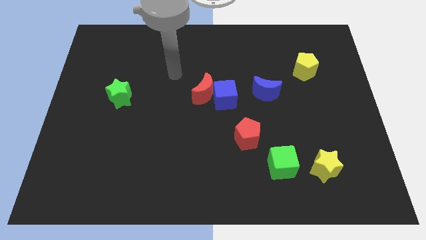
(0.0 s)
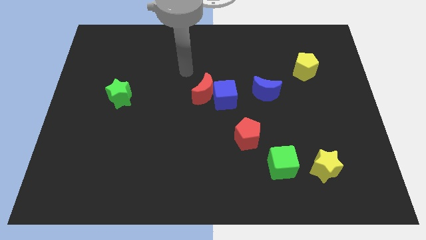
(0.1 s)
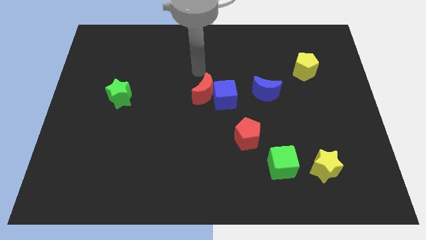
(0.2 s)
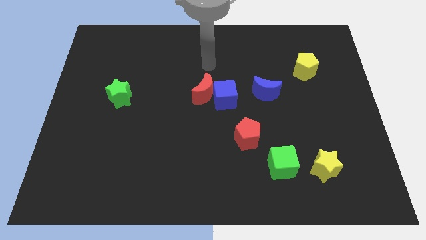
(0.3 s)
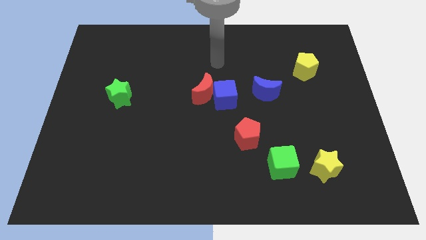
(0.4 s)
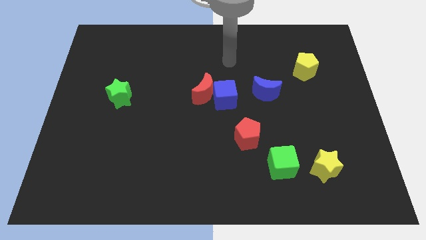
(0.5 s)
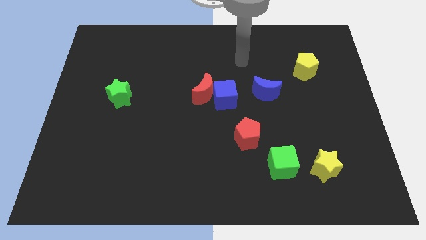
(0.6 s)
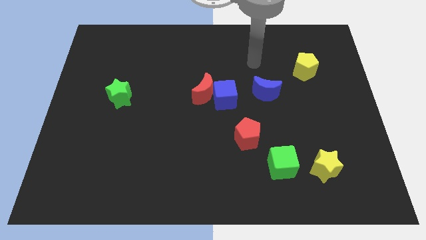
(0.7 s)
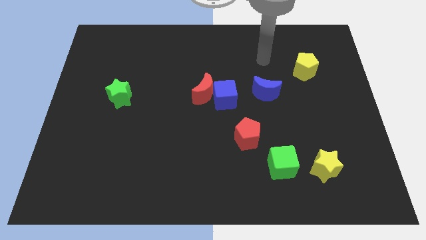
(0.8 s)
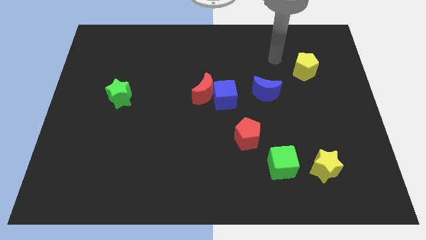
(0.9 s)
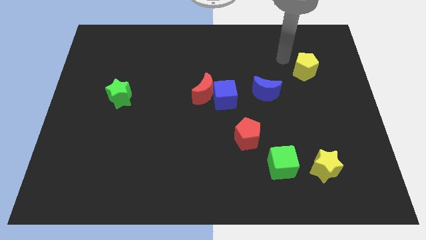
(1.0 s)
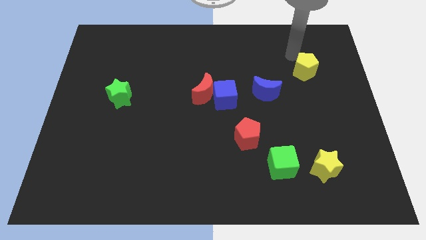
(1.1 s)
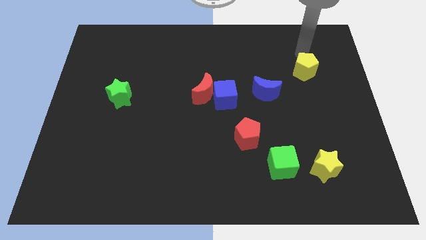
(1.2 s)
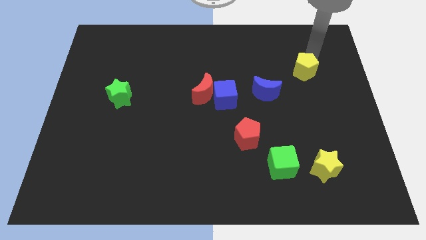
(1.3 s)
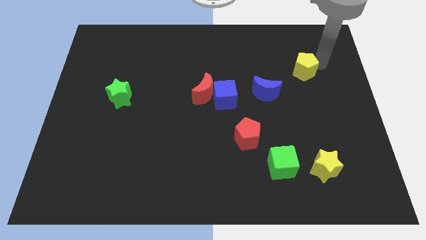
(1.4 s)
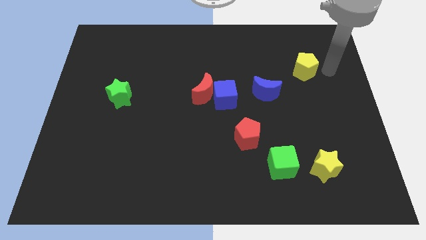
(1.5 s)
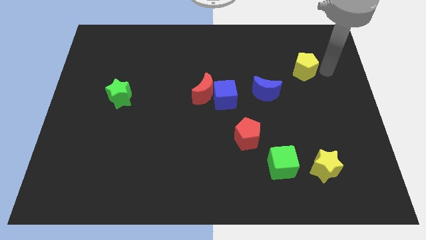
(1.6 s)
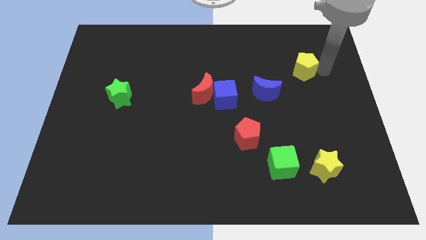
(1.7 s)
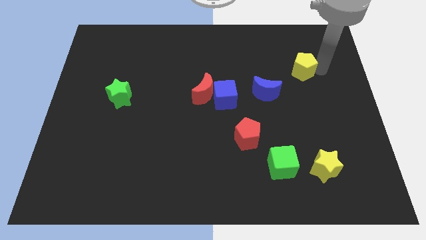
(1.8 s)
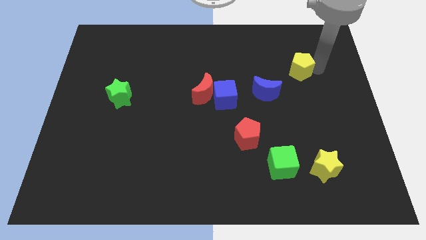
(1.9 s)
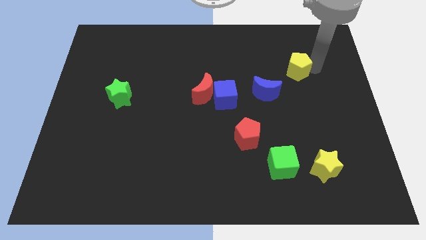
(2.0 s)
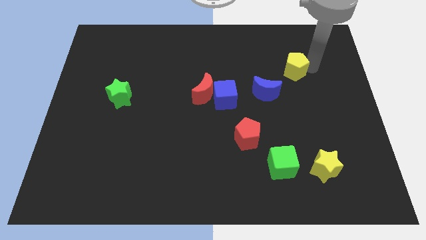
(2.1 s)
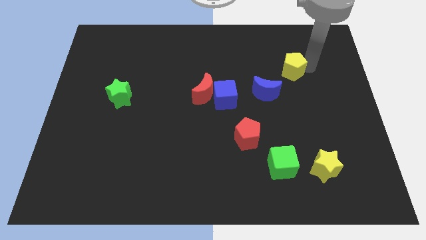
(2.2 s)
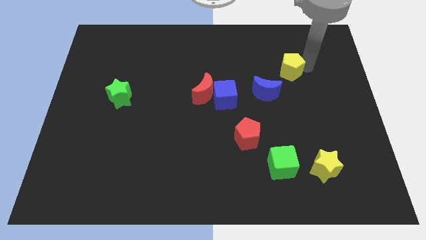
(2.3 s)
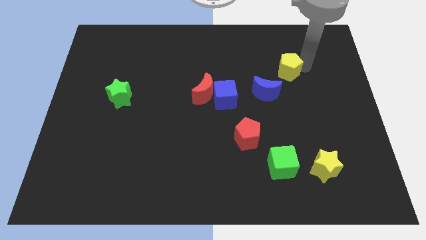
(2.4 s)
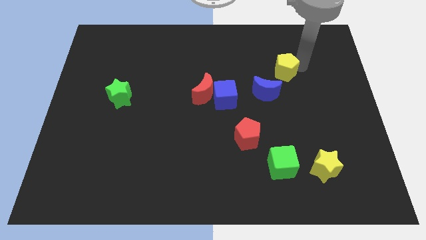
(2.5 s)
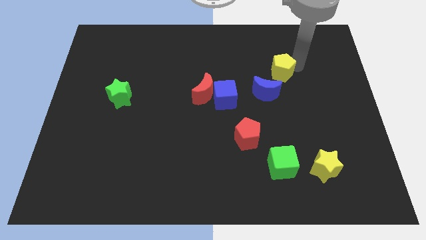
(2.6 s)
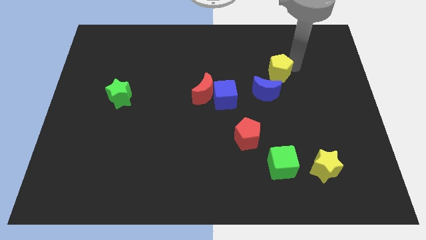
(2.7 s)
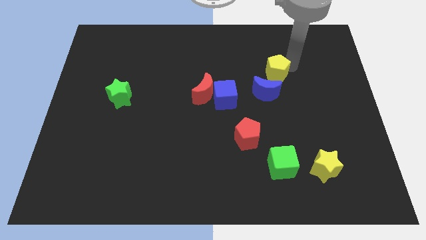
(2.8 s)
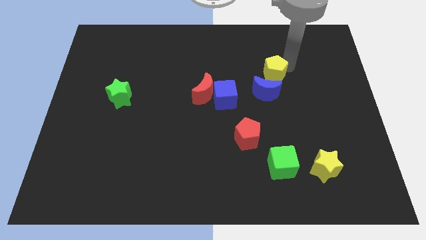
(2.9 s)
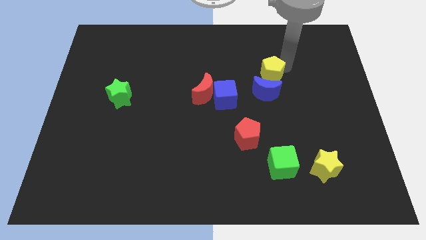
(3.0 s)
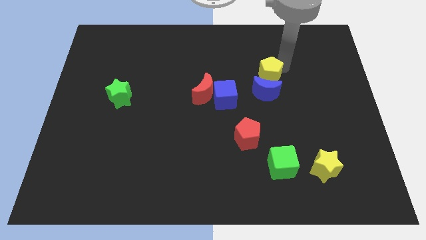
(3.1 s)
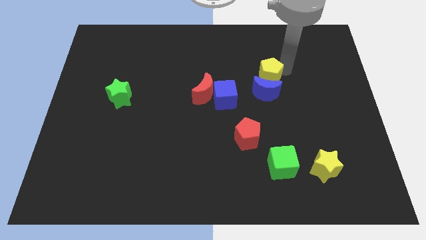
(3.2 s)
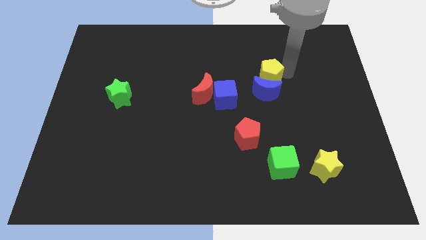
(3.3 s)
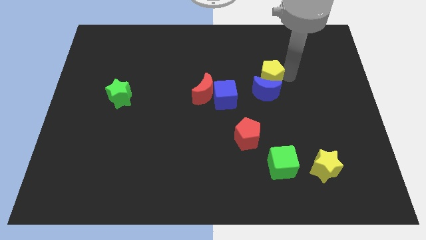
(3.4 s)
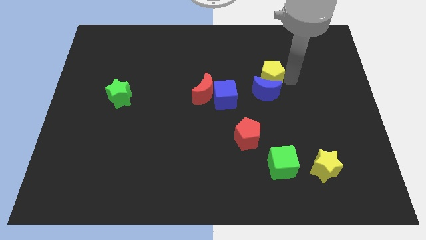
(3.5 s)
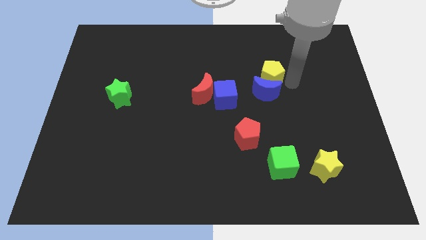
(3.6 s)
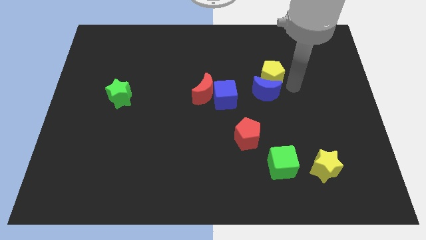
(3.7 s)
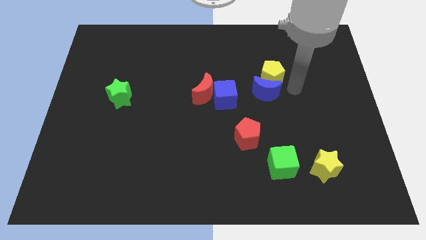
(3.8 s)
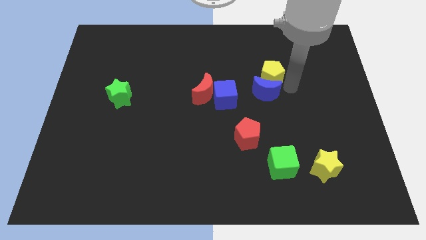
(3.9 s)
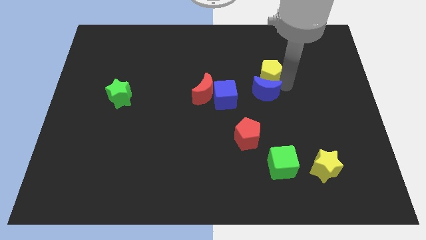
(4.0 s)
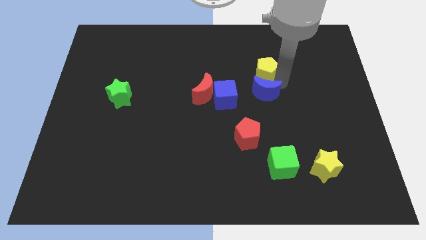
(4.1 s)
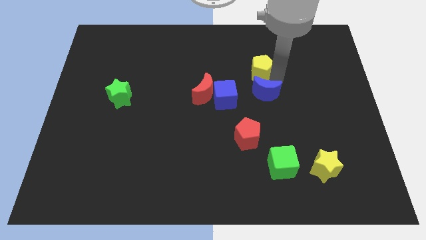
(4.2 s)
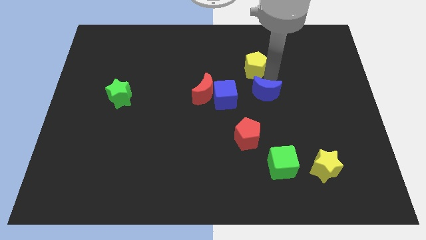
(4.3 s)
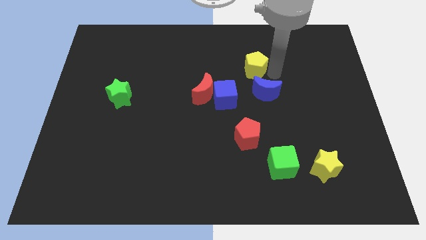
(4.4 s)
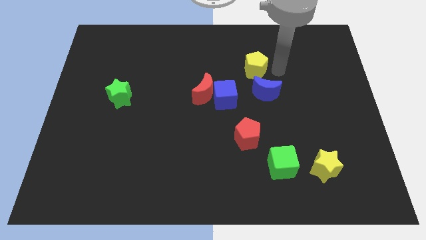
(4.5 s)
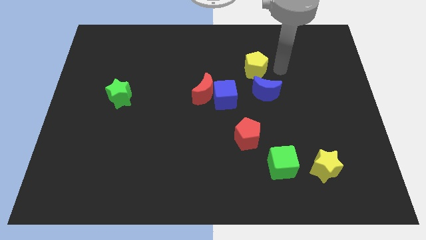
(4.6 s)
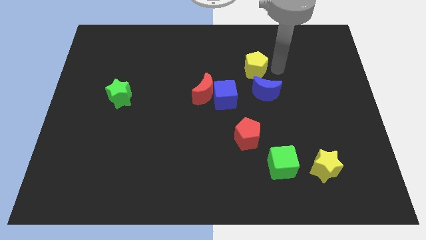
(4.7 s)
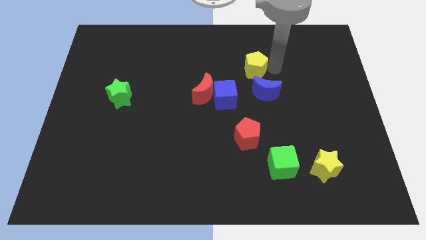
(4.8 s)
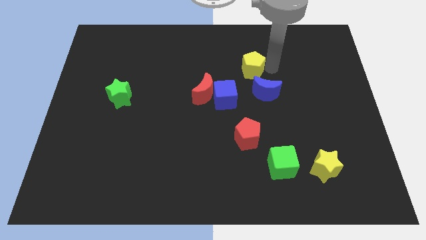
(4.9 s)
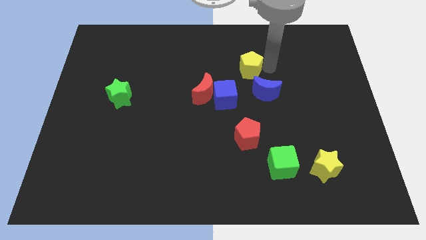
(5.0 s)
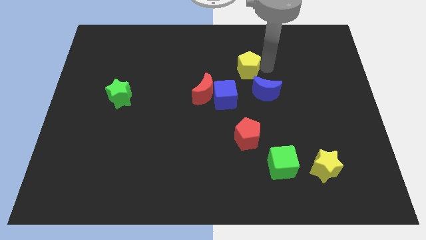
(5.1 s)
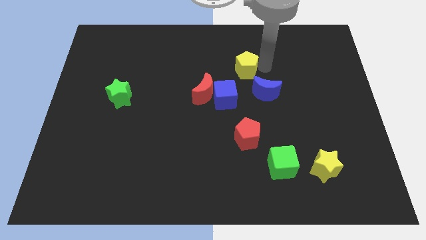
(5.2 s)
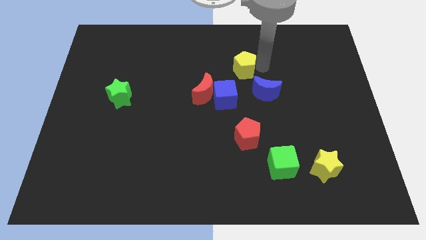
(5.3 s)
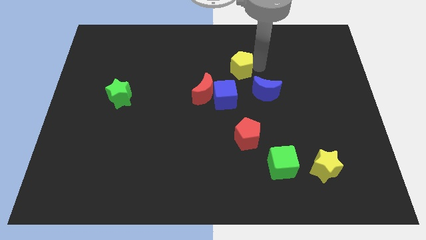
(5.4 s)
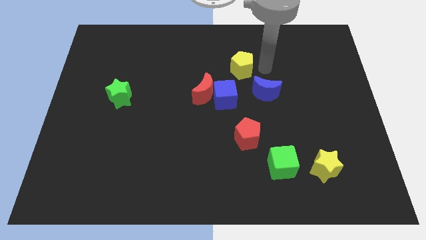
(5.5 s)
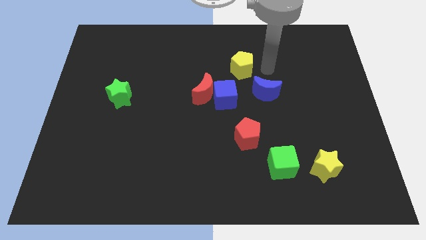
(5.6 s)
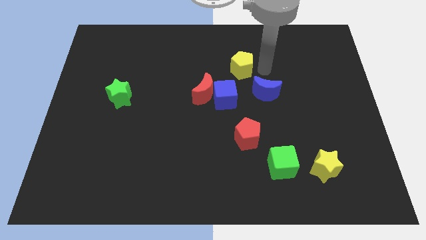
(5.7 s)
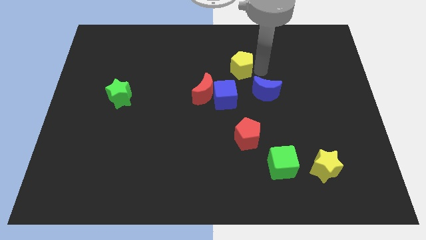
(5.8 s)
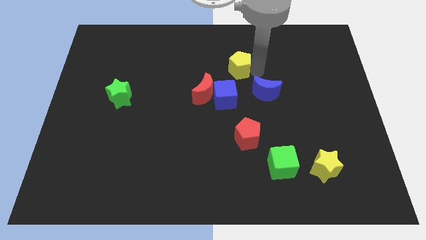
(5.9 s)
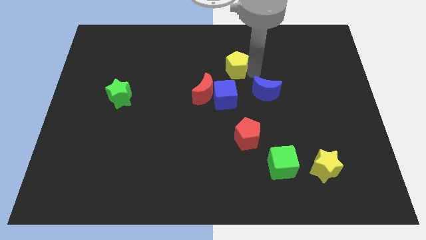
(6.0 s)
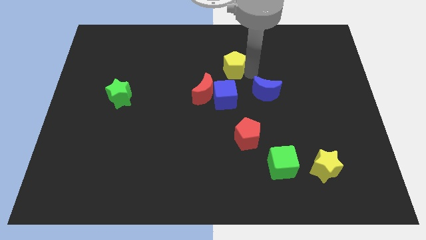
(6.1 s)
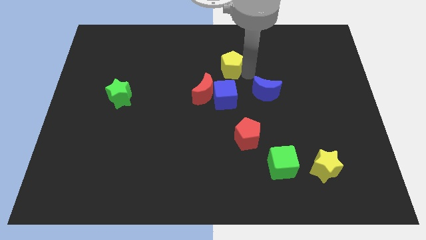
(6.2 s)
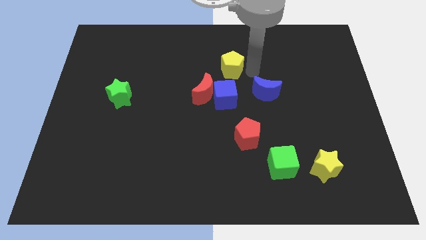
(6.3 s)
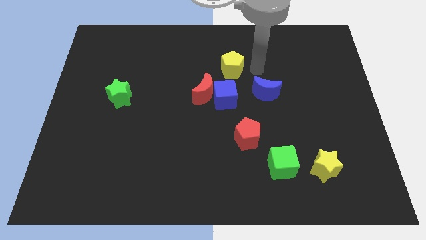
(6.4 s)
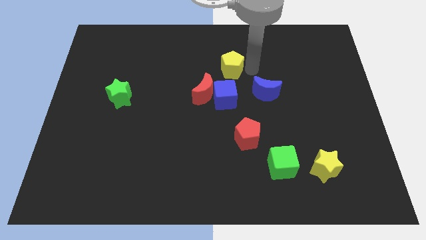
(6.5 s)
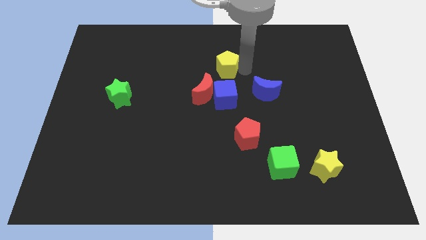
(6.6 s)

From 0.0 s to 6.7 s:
slide the yellow pentagon left

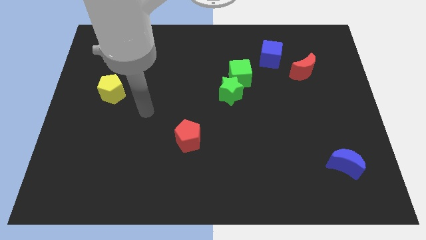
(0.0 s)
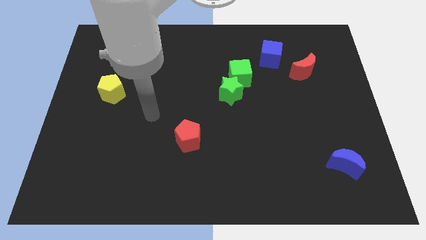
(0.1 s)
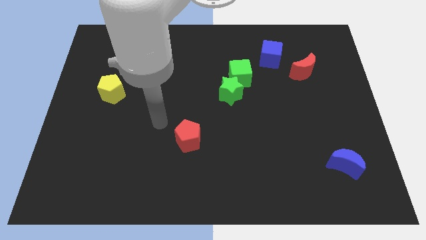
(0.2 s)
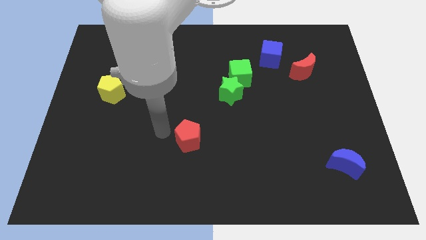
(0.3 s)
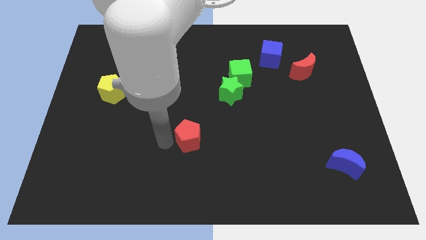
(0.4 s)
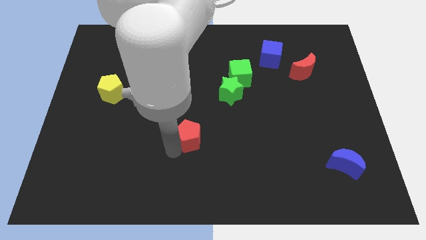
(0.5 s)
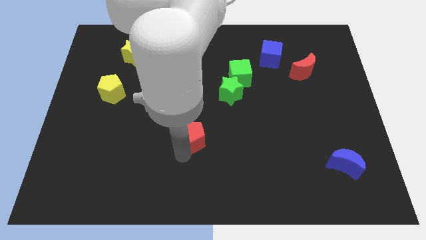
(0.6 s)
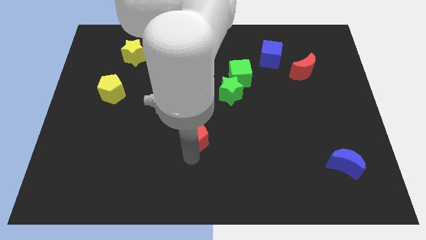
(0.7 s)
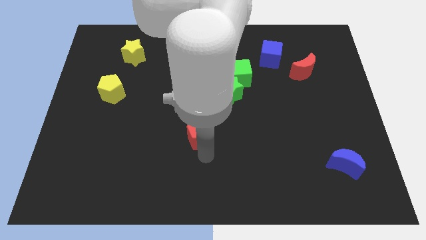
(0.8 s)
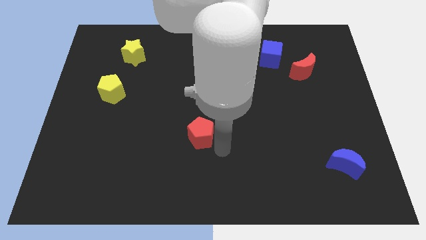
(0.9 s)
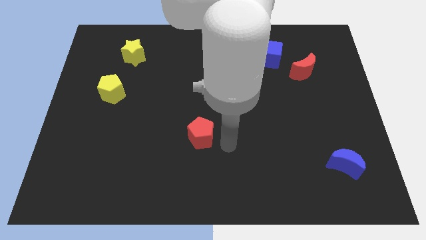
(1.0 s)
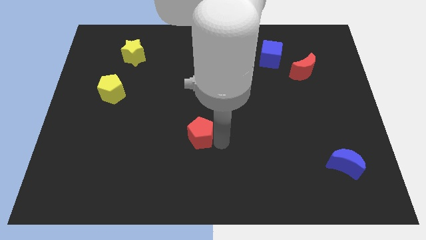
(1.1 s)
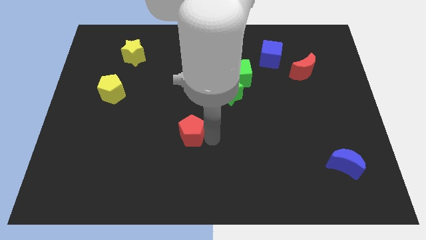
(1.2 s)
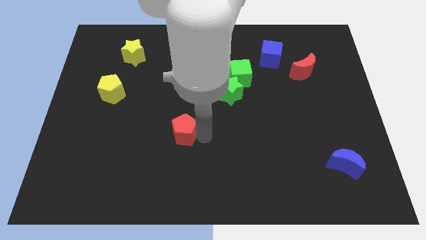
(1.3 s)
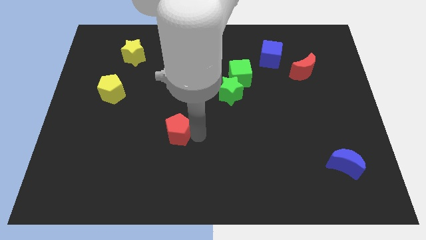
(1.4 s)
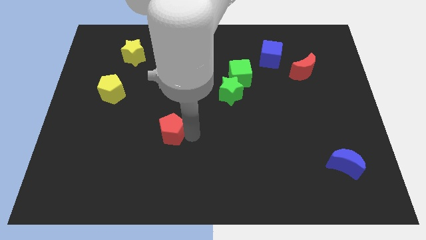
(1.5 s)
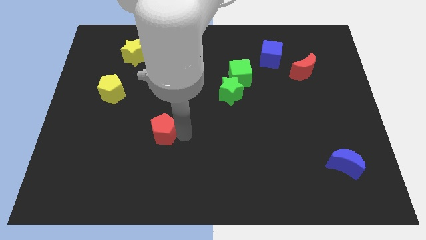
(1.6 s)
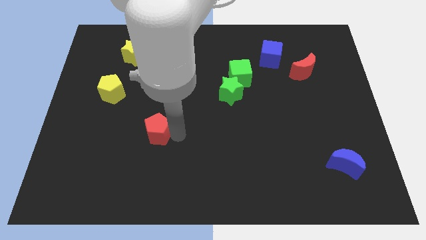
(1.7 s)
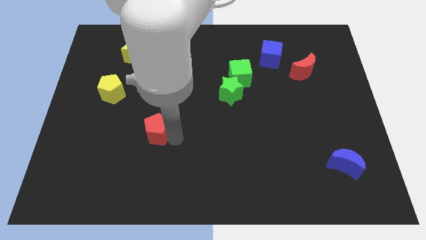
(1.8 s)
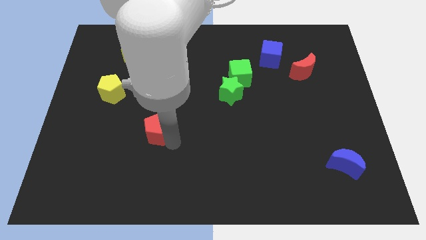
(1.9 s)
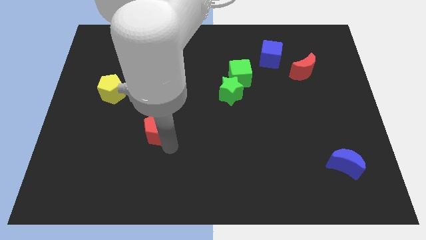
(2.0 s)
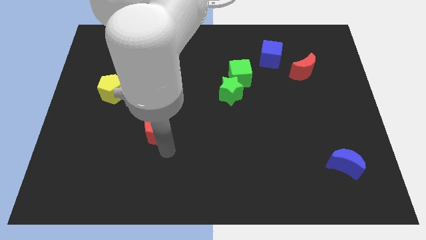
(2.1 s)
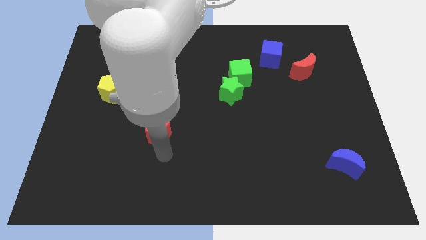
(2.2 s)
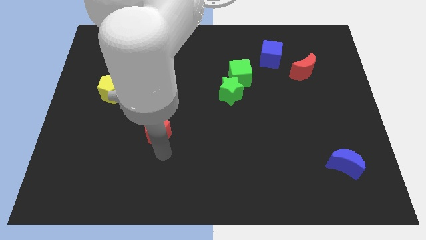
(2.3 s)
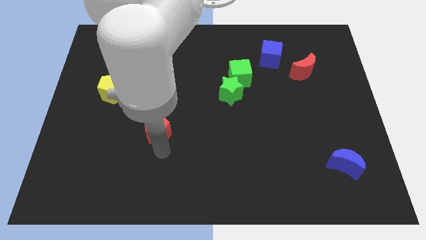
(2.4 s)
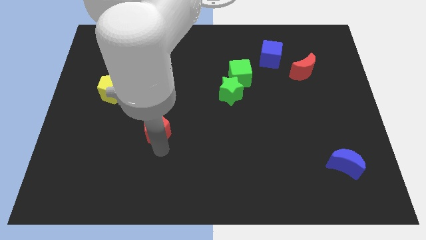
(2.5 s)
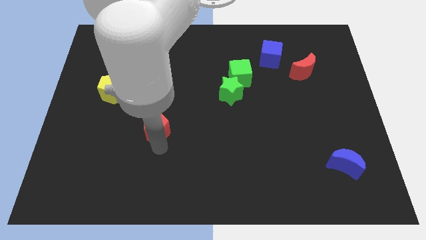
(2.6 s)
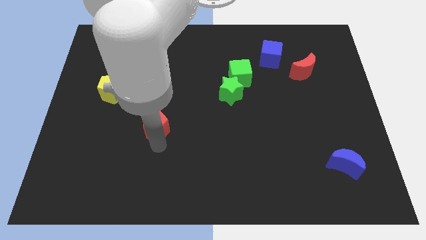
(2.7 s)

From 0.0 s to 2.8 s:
move the red pentagon upwards and then left a little
